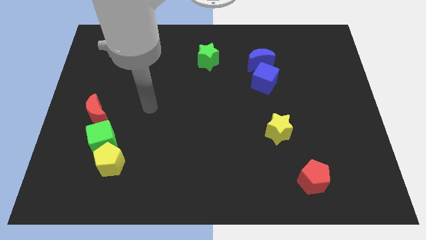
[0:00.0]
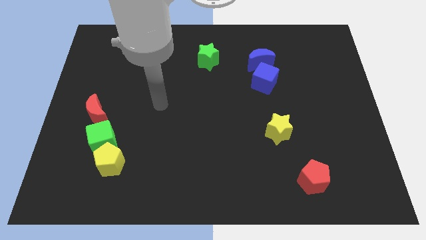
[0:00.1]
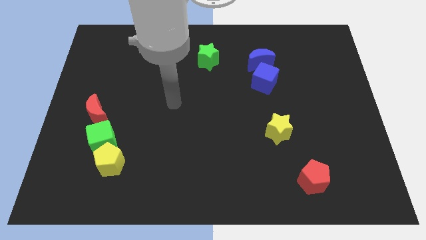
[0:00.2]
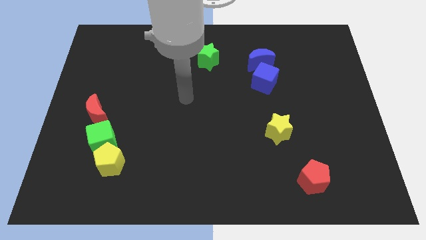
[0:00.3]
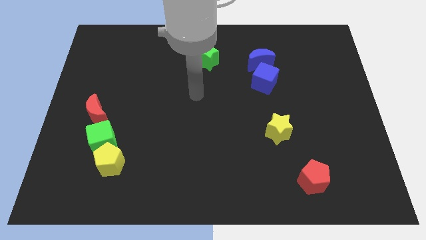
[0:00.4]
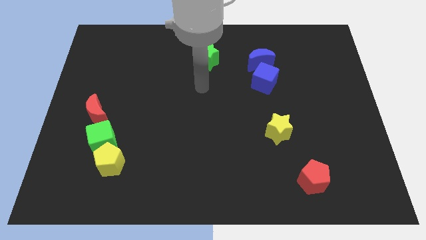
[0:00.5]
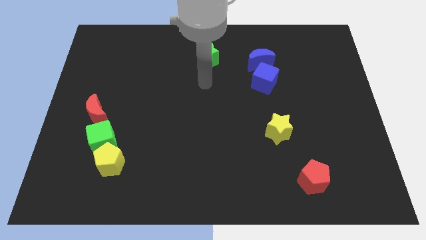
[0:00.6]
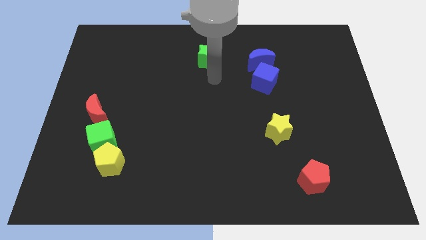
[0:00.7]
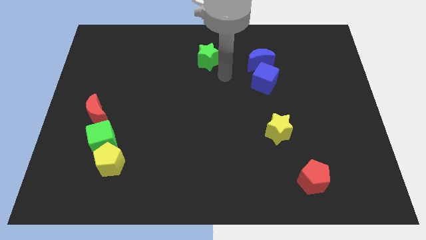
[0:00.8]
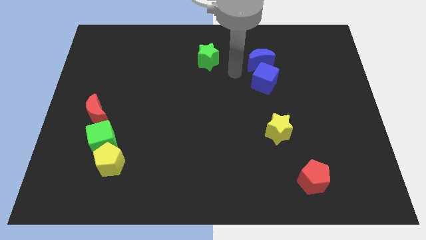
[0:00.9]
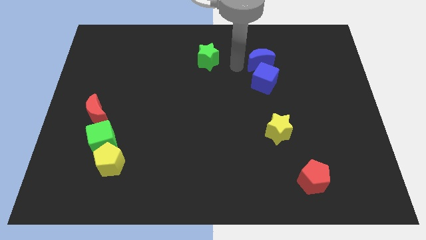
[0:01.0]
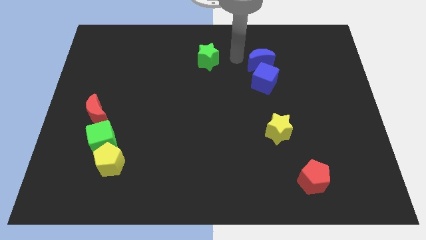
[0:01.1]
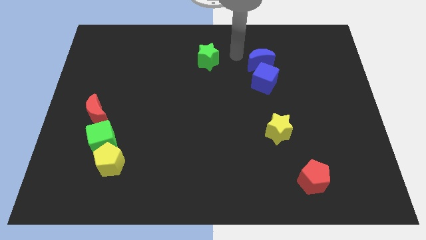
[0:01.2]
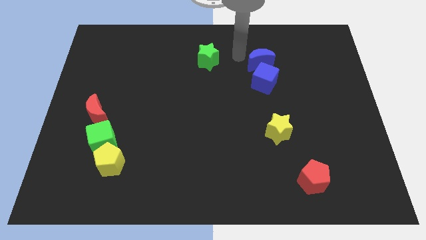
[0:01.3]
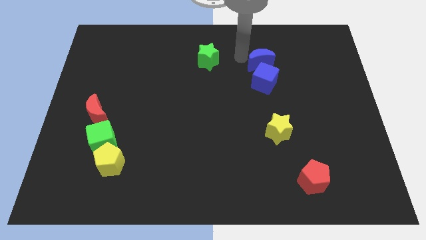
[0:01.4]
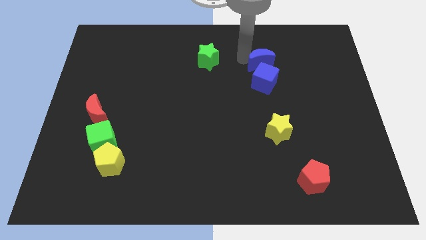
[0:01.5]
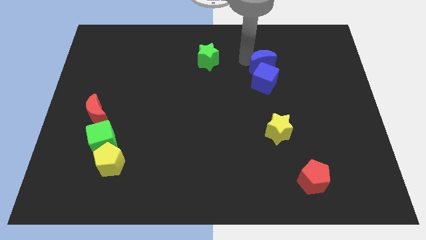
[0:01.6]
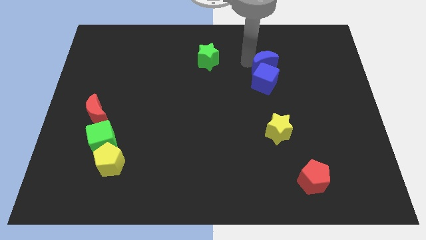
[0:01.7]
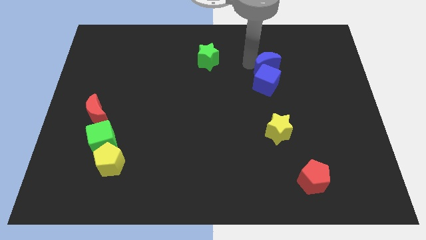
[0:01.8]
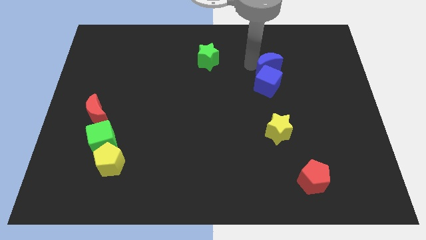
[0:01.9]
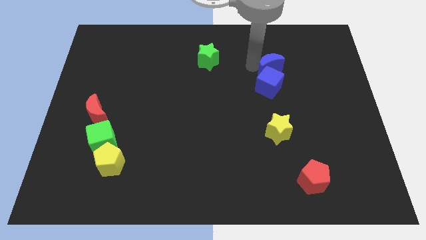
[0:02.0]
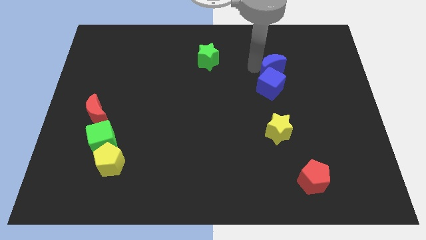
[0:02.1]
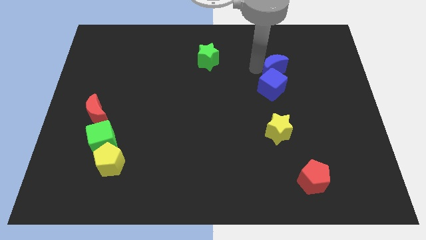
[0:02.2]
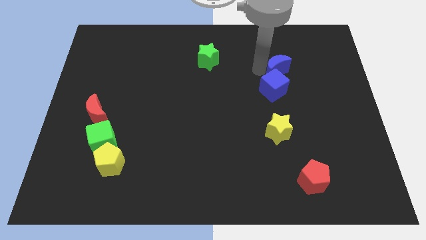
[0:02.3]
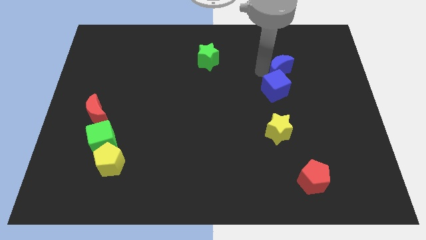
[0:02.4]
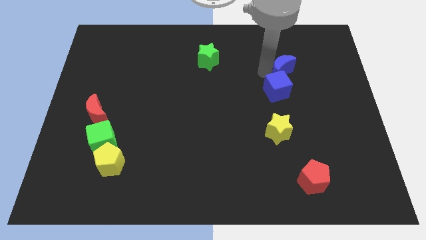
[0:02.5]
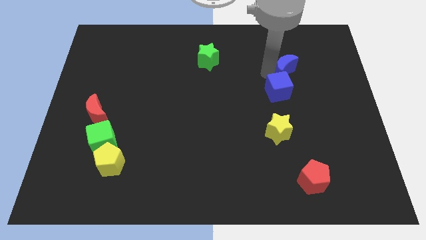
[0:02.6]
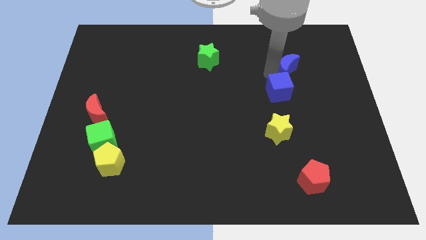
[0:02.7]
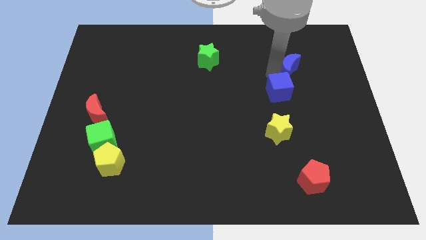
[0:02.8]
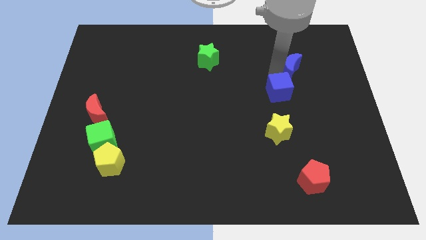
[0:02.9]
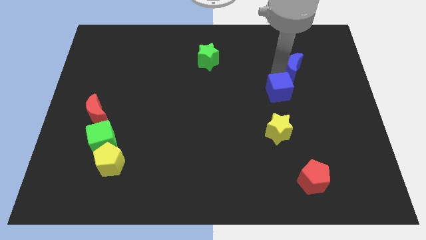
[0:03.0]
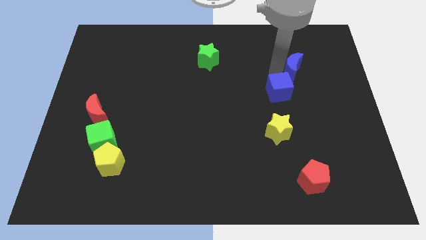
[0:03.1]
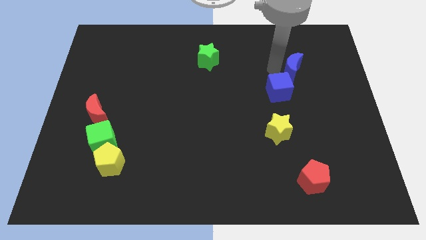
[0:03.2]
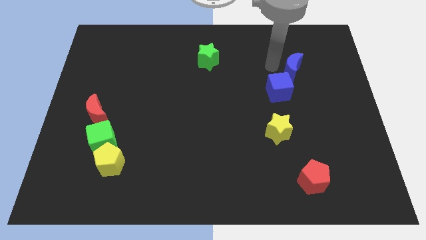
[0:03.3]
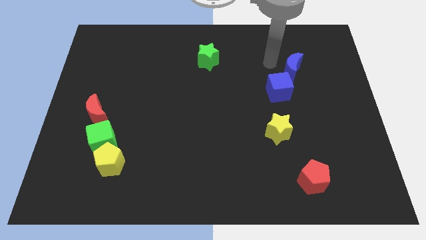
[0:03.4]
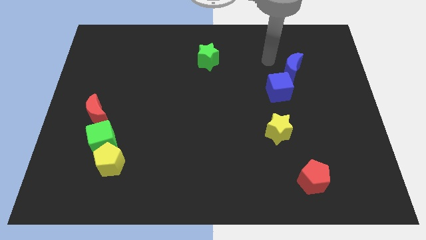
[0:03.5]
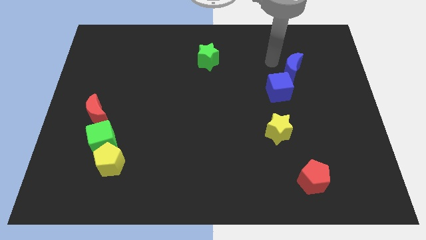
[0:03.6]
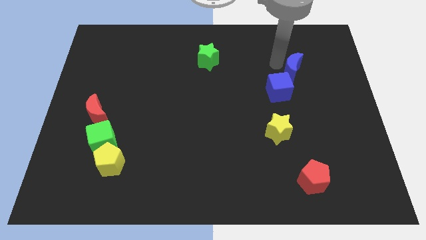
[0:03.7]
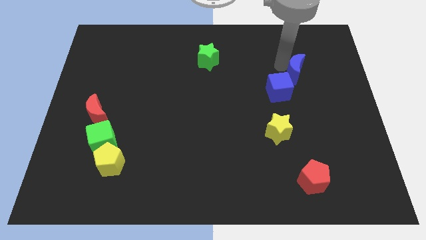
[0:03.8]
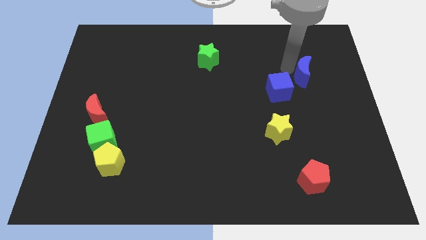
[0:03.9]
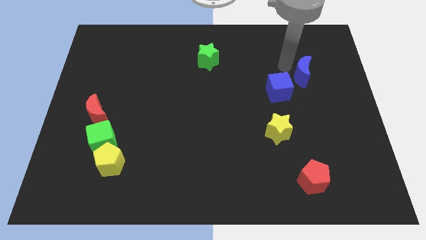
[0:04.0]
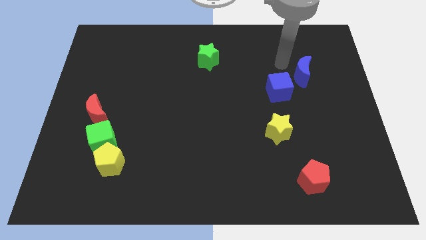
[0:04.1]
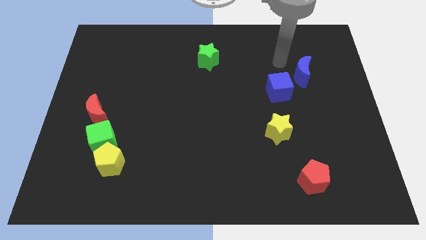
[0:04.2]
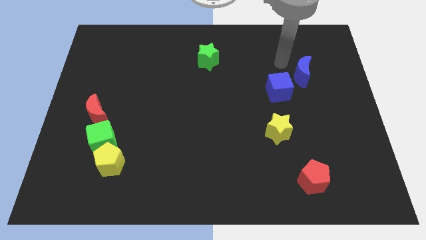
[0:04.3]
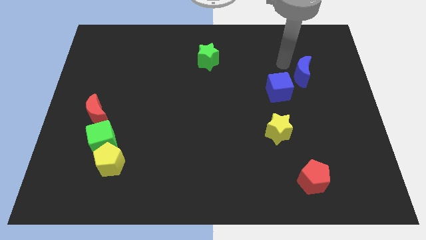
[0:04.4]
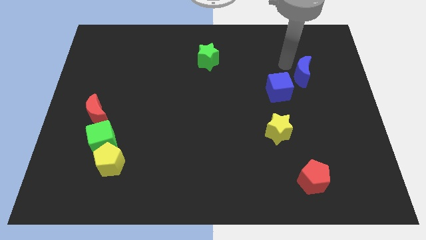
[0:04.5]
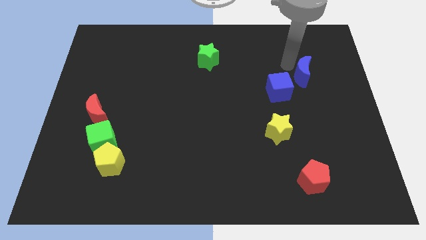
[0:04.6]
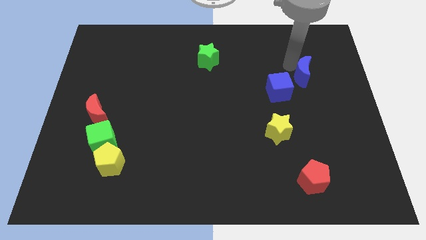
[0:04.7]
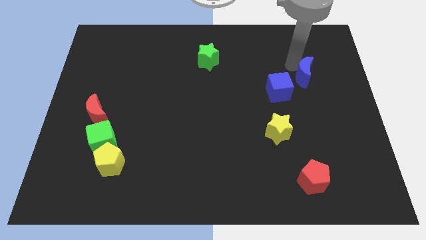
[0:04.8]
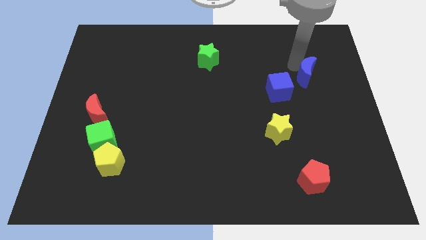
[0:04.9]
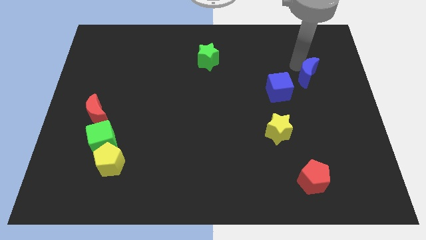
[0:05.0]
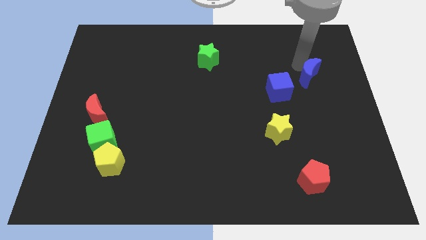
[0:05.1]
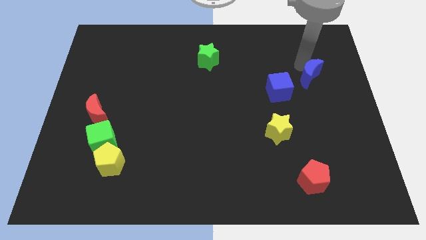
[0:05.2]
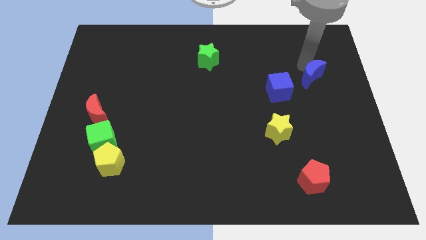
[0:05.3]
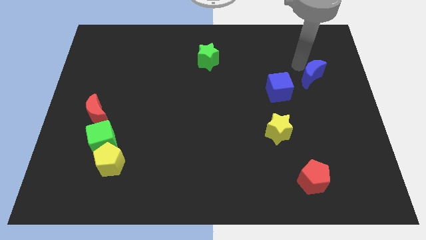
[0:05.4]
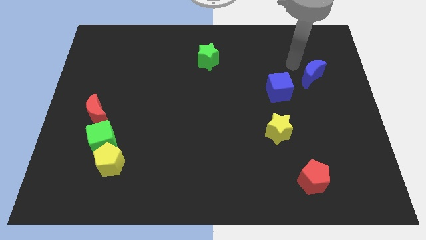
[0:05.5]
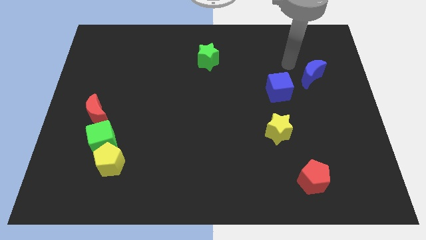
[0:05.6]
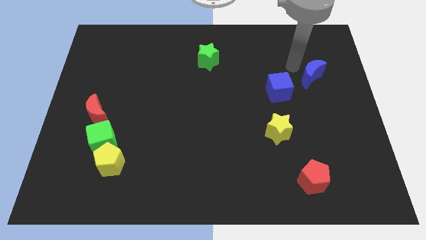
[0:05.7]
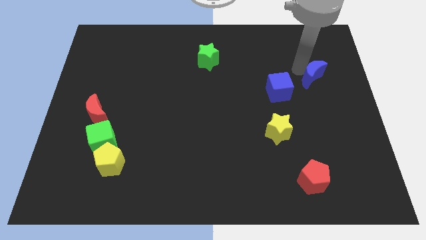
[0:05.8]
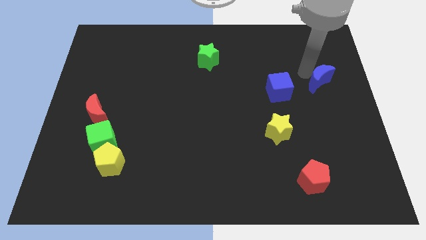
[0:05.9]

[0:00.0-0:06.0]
move the blue moon to the right side of the board

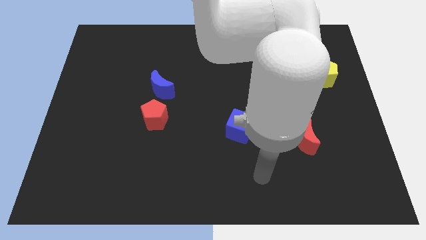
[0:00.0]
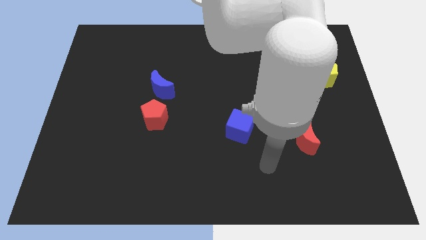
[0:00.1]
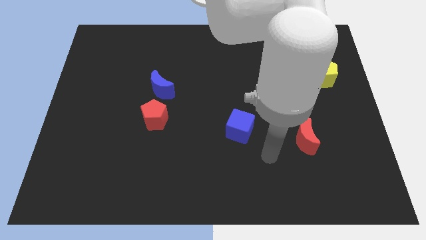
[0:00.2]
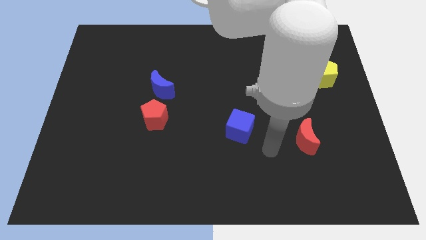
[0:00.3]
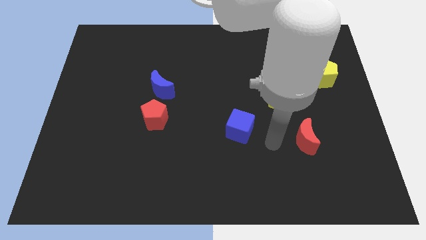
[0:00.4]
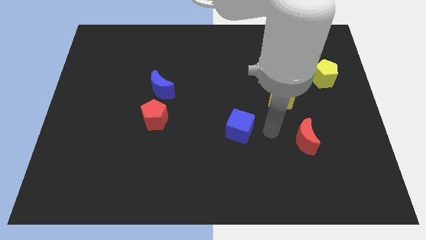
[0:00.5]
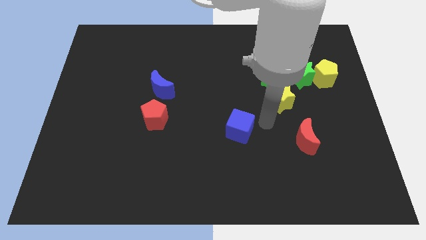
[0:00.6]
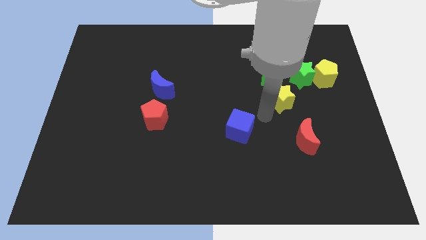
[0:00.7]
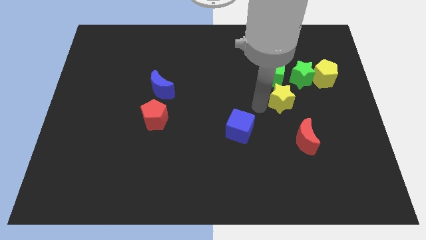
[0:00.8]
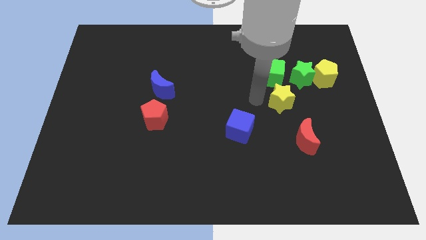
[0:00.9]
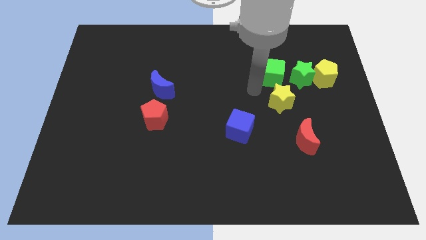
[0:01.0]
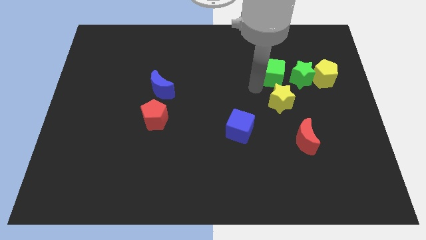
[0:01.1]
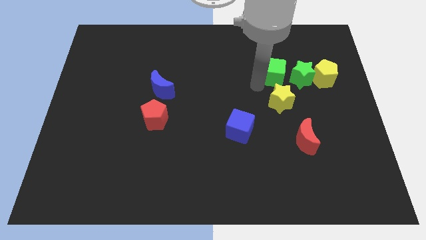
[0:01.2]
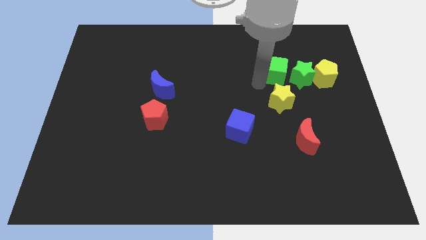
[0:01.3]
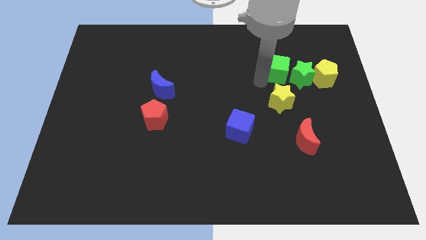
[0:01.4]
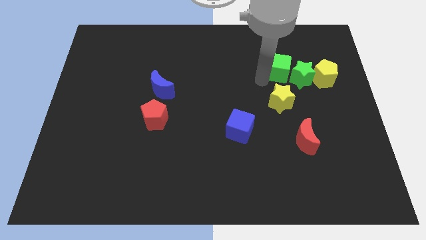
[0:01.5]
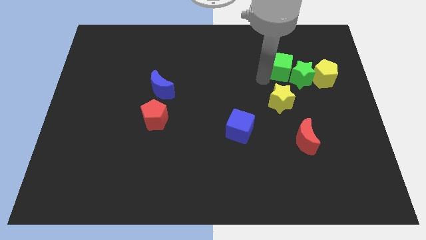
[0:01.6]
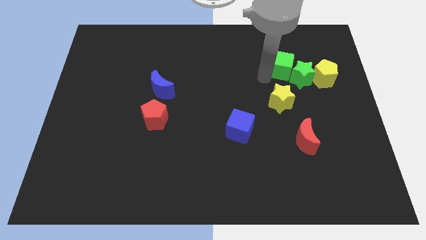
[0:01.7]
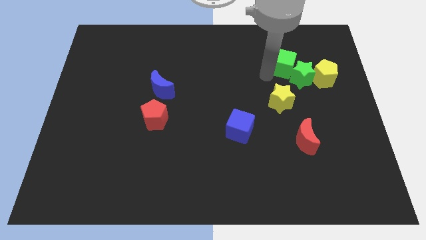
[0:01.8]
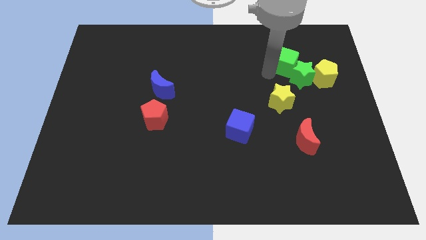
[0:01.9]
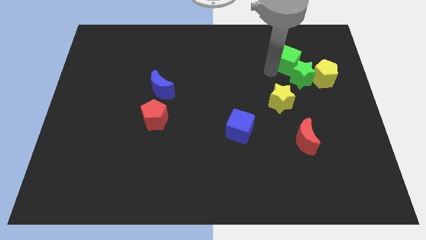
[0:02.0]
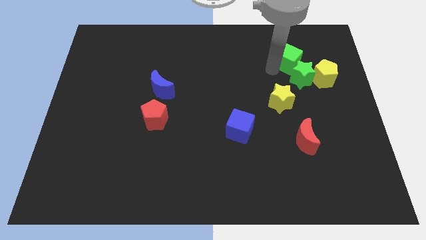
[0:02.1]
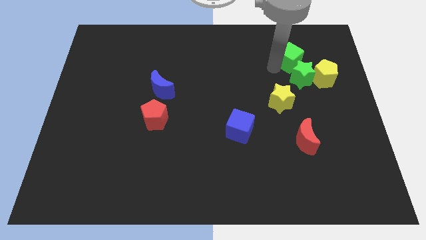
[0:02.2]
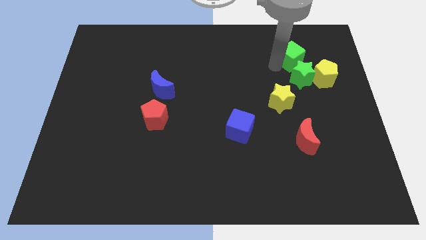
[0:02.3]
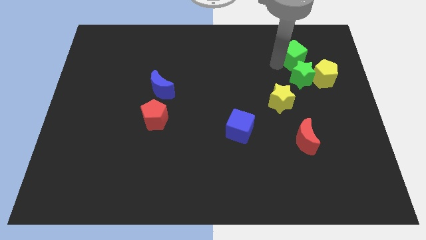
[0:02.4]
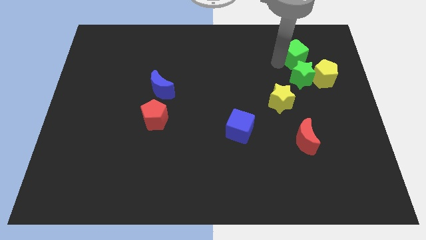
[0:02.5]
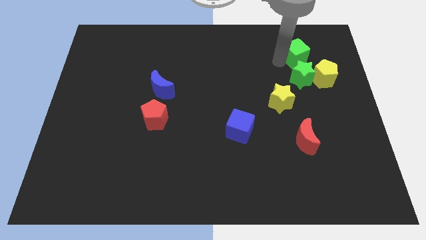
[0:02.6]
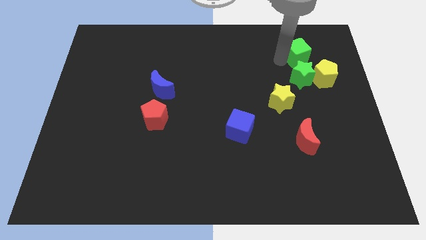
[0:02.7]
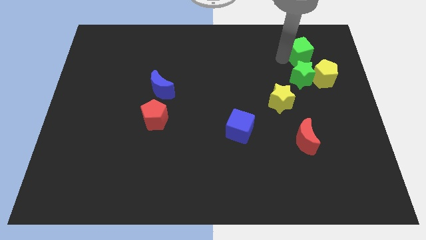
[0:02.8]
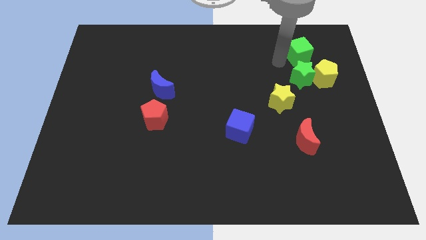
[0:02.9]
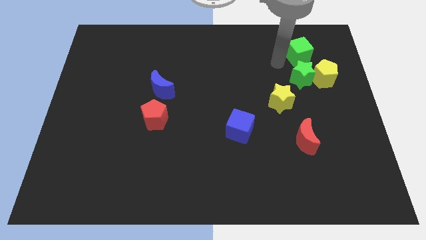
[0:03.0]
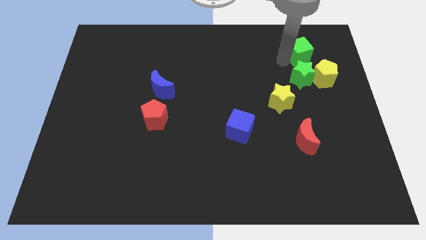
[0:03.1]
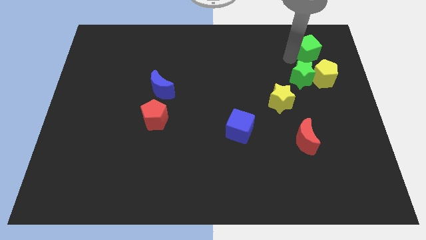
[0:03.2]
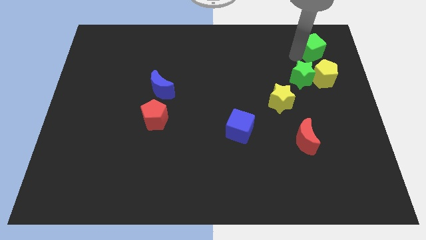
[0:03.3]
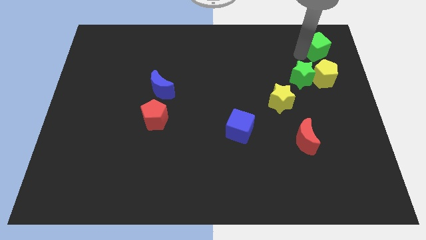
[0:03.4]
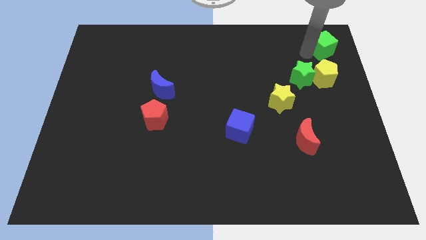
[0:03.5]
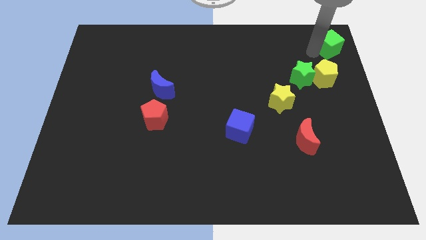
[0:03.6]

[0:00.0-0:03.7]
slide the green cube to the top right of the board
